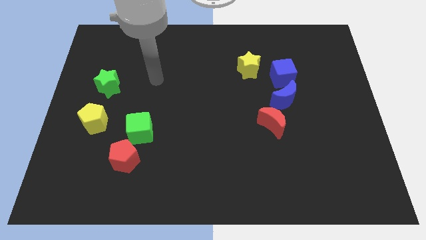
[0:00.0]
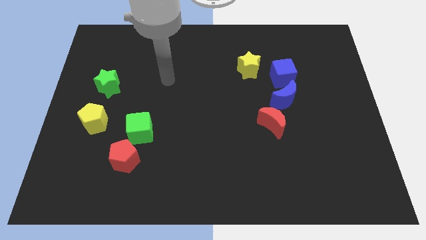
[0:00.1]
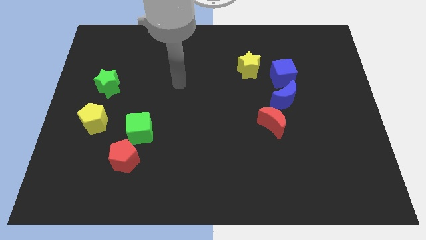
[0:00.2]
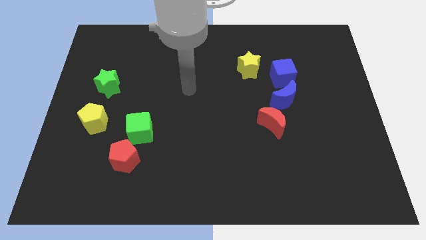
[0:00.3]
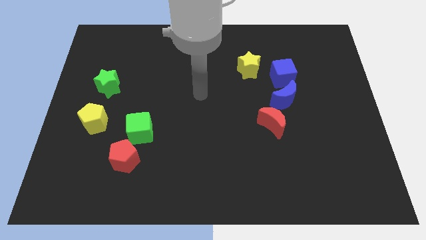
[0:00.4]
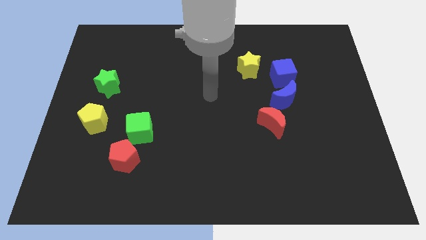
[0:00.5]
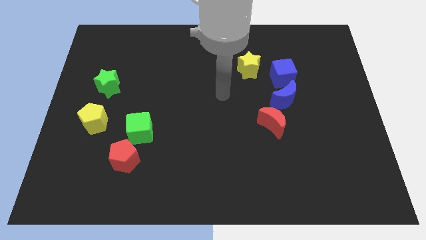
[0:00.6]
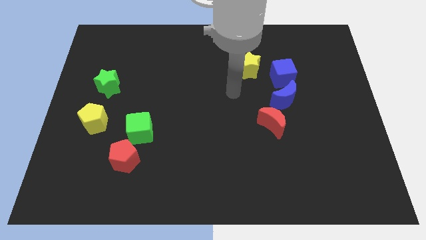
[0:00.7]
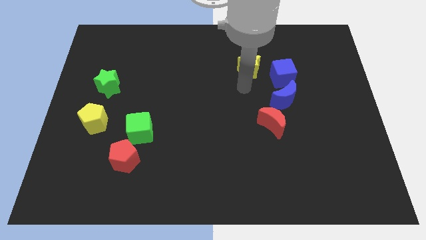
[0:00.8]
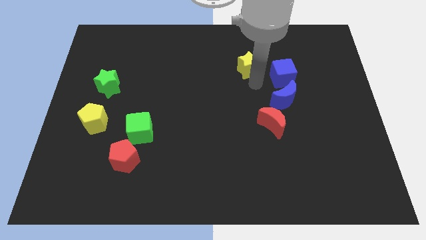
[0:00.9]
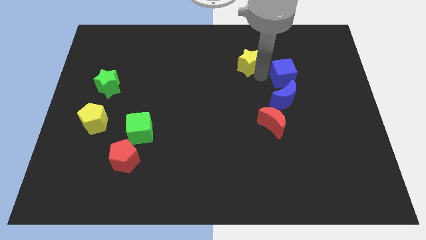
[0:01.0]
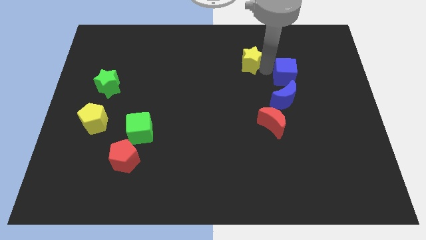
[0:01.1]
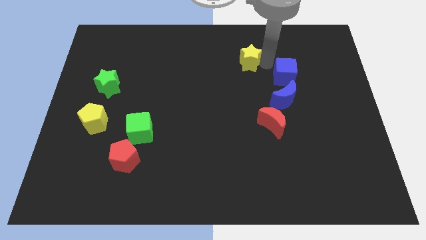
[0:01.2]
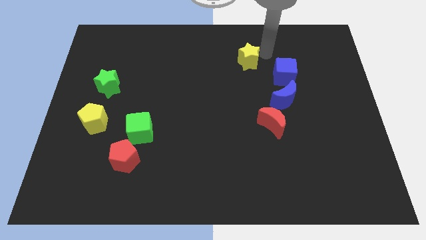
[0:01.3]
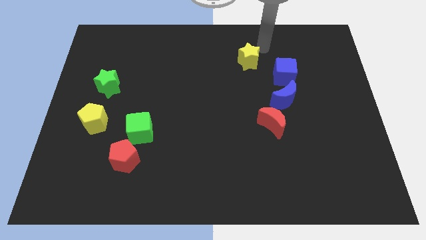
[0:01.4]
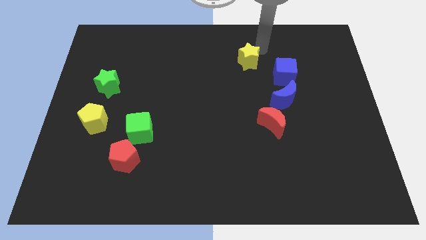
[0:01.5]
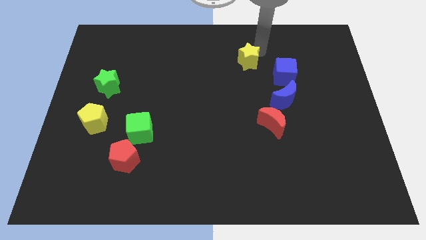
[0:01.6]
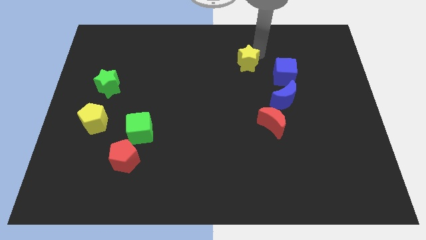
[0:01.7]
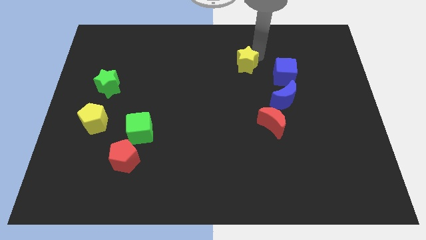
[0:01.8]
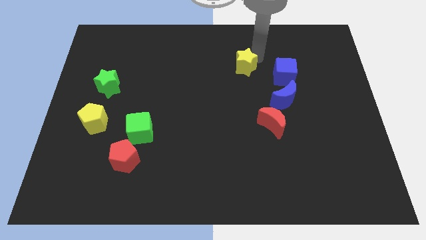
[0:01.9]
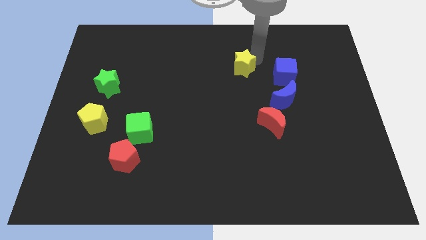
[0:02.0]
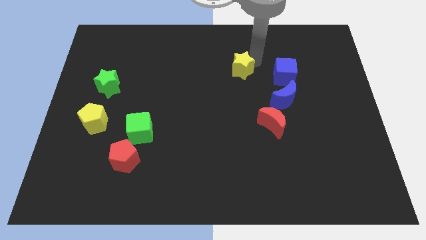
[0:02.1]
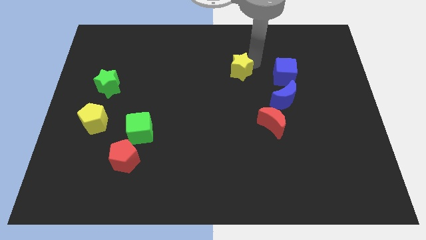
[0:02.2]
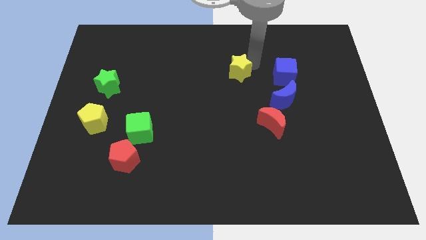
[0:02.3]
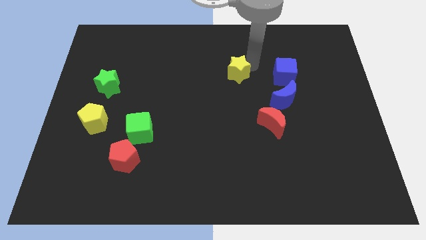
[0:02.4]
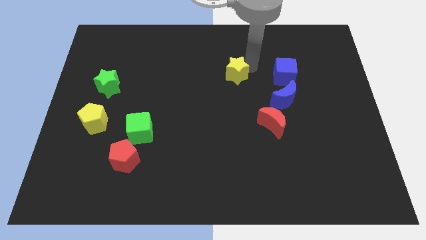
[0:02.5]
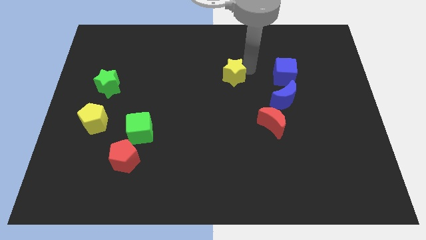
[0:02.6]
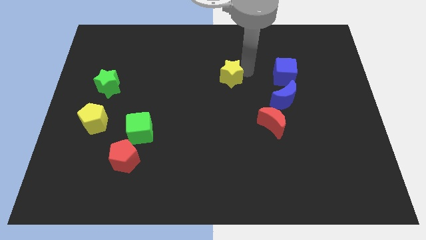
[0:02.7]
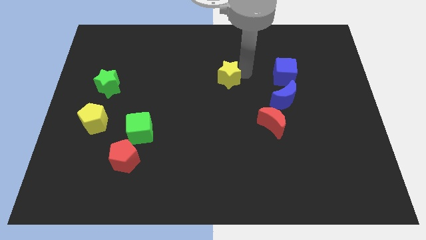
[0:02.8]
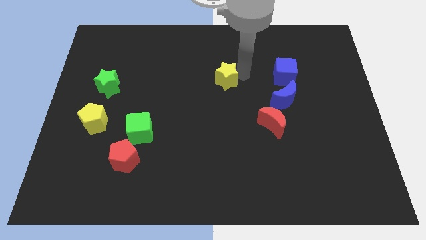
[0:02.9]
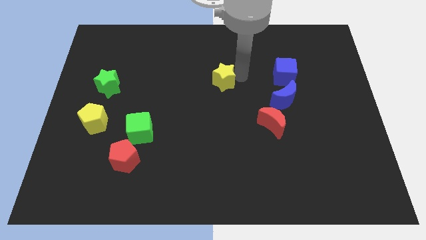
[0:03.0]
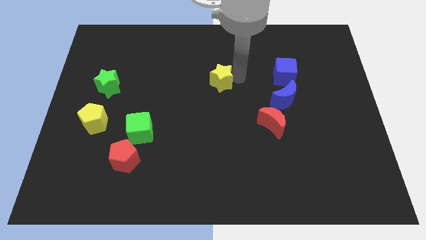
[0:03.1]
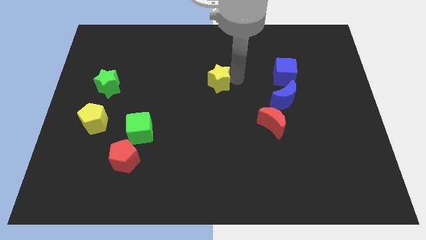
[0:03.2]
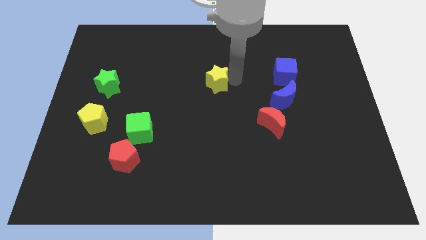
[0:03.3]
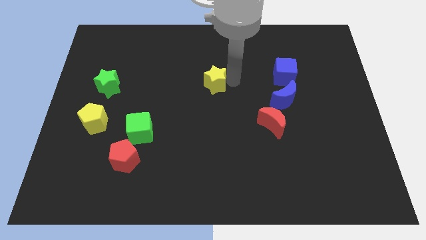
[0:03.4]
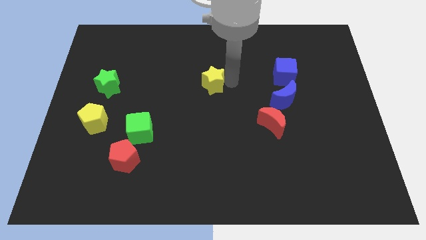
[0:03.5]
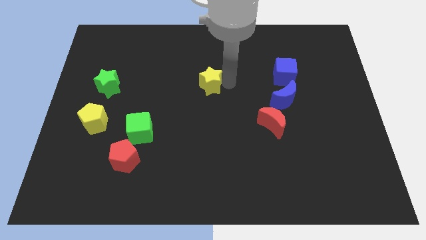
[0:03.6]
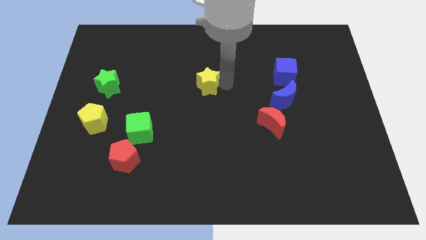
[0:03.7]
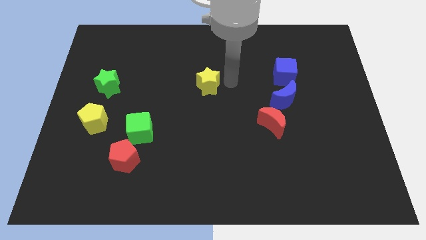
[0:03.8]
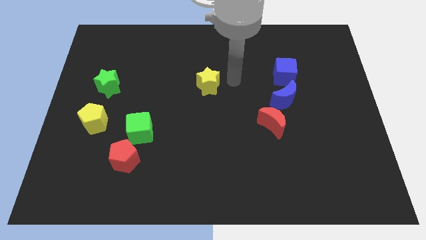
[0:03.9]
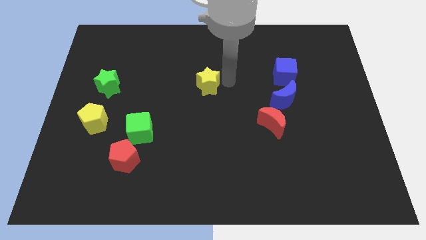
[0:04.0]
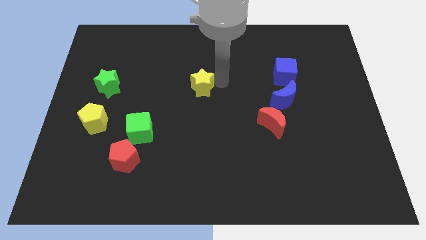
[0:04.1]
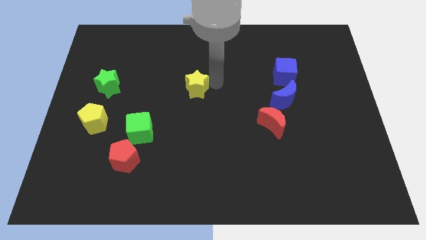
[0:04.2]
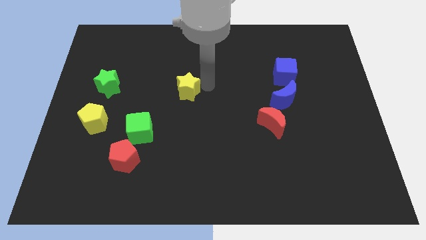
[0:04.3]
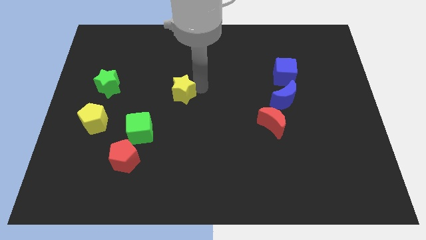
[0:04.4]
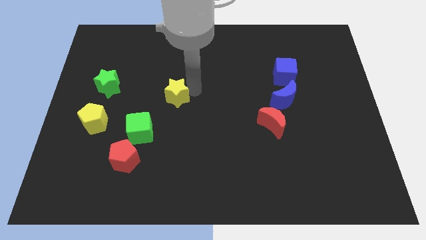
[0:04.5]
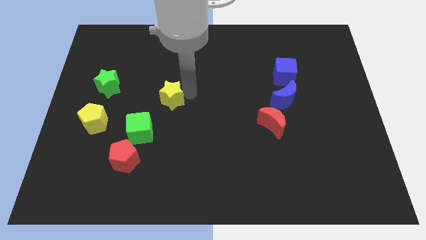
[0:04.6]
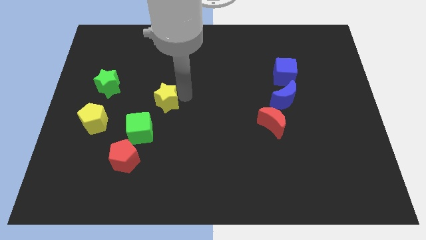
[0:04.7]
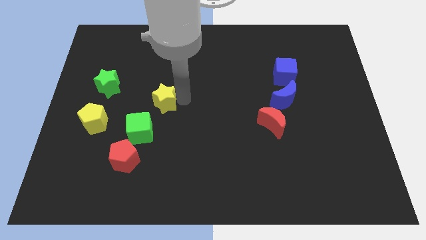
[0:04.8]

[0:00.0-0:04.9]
put the yellow star above the green cube

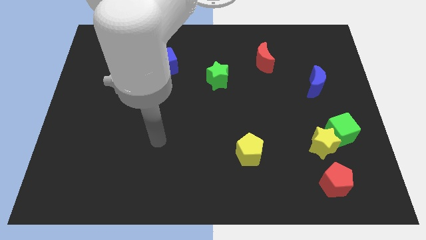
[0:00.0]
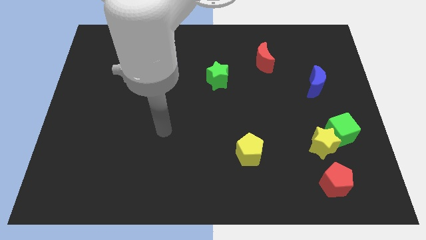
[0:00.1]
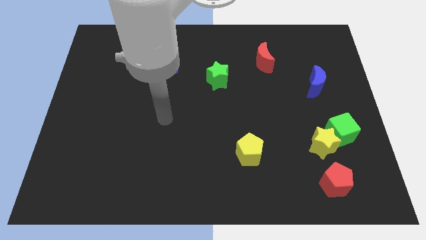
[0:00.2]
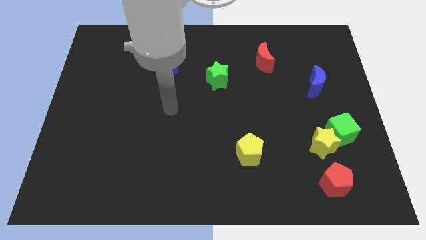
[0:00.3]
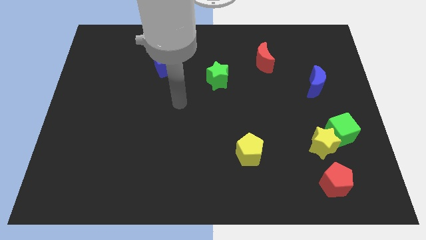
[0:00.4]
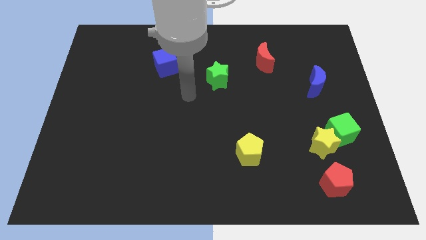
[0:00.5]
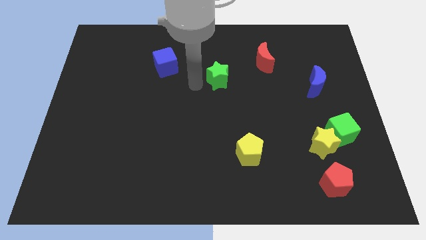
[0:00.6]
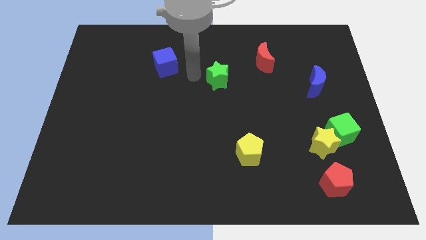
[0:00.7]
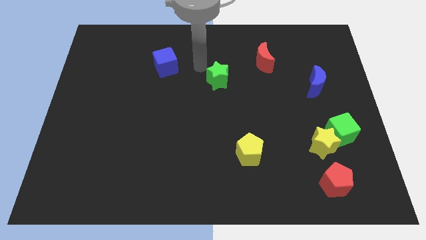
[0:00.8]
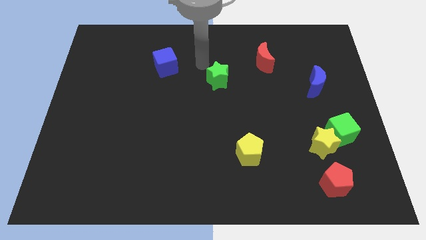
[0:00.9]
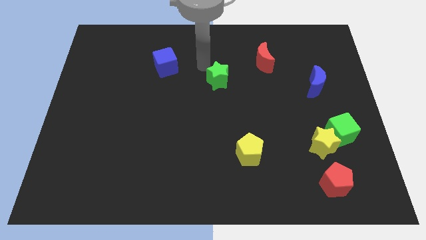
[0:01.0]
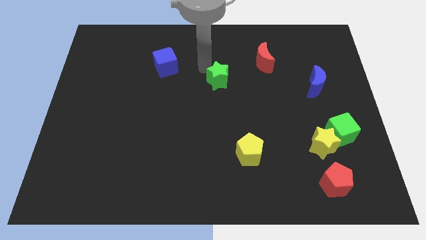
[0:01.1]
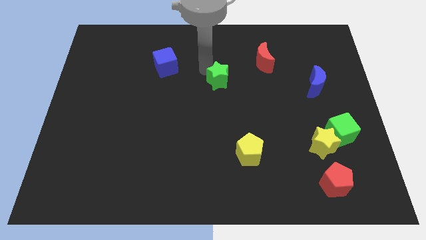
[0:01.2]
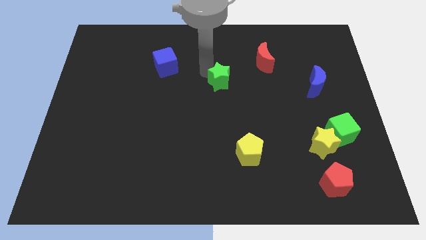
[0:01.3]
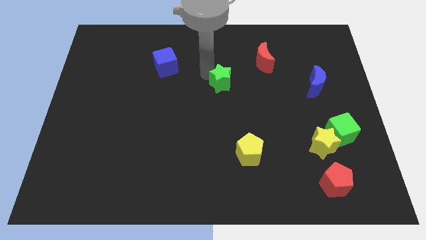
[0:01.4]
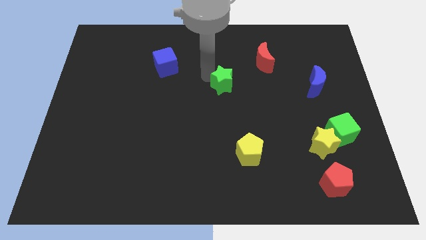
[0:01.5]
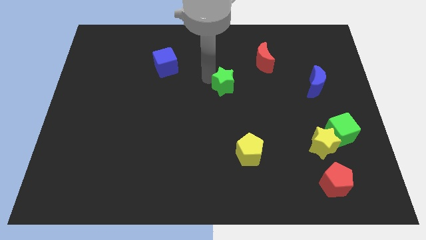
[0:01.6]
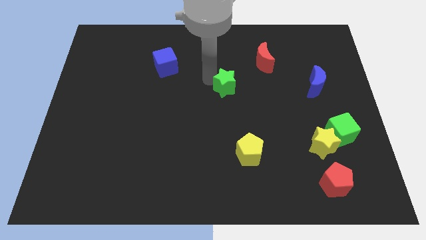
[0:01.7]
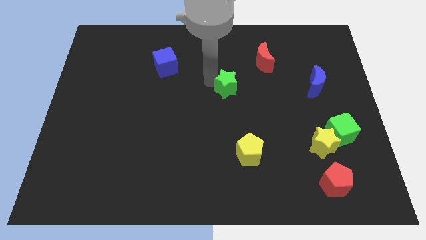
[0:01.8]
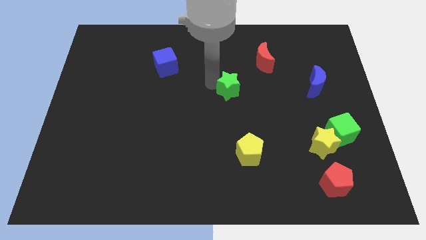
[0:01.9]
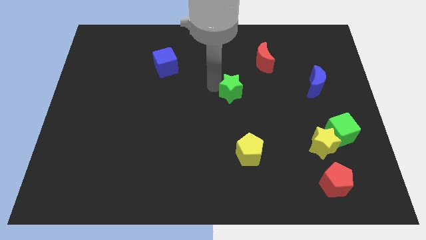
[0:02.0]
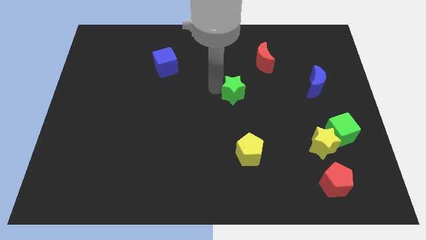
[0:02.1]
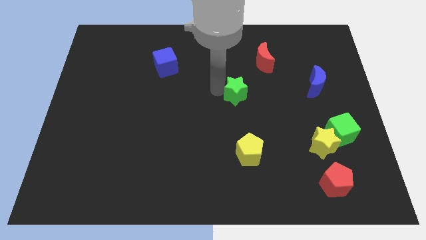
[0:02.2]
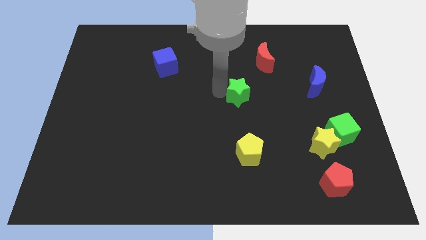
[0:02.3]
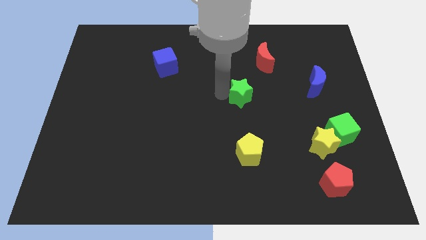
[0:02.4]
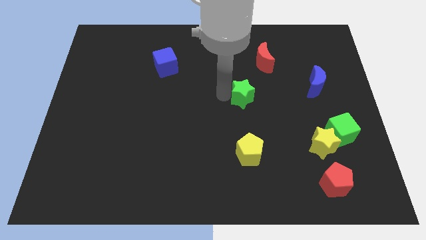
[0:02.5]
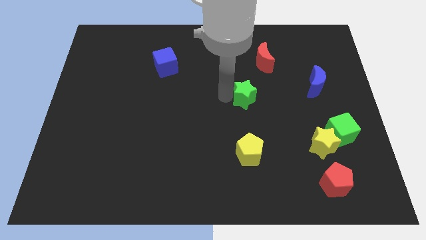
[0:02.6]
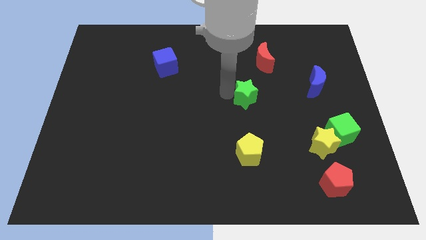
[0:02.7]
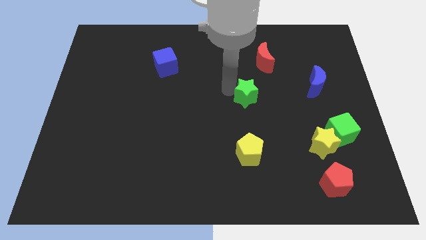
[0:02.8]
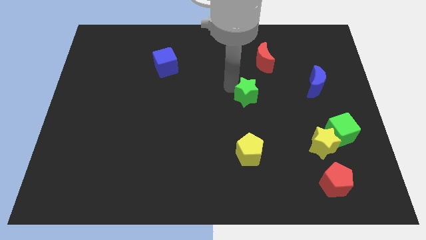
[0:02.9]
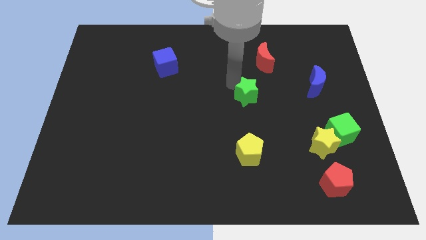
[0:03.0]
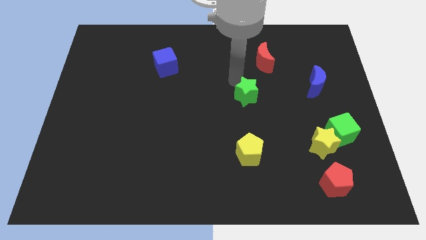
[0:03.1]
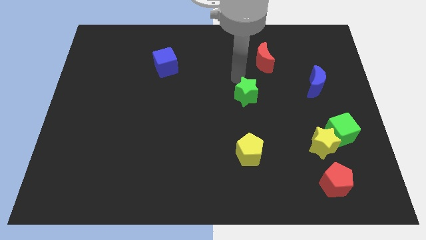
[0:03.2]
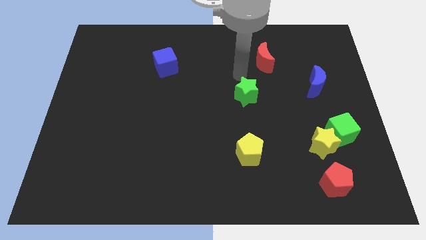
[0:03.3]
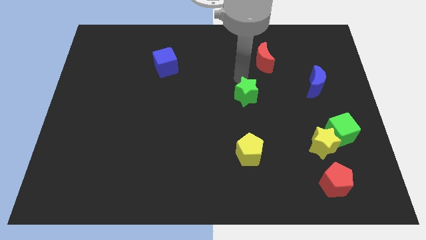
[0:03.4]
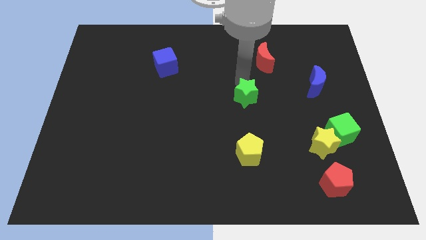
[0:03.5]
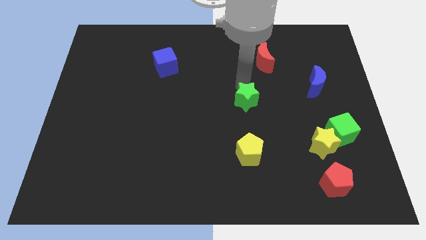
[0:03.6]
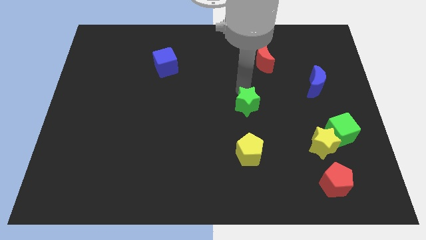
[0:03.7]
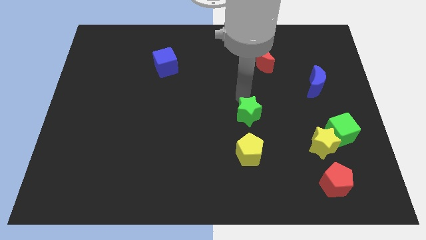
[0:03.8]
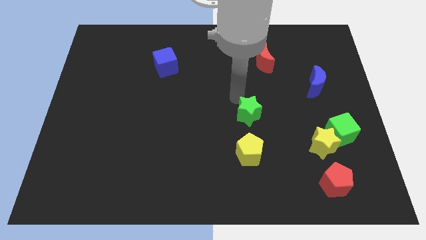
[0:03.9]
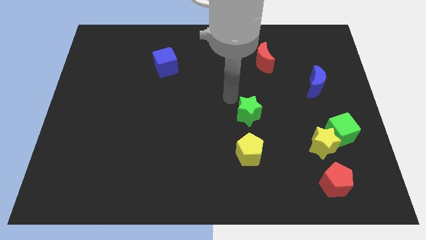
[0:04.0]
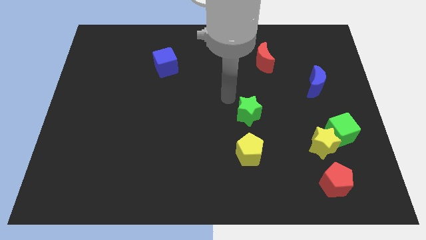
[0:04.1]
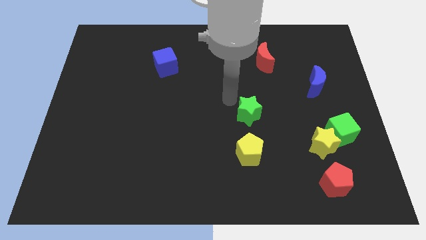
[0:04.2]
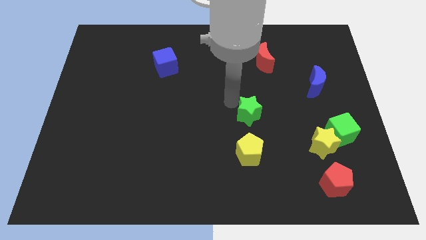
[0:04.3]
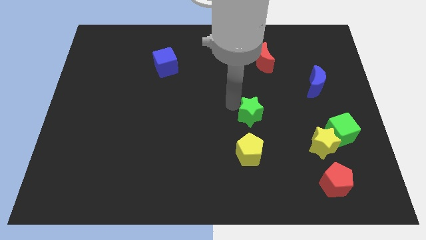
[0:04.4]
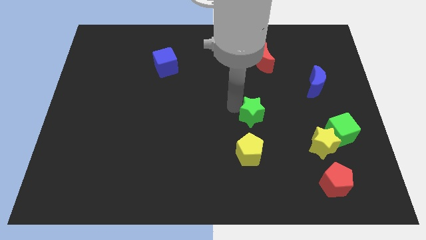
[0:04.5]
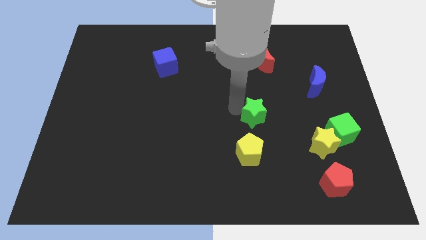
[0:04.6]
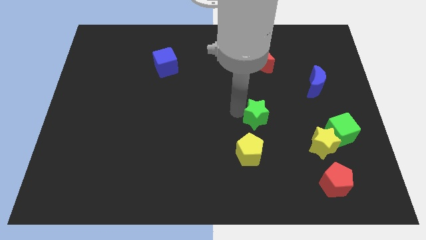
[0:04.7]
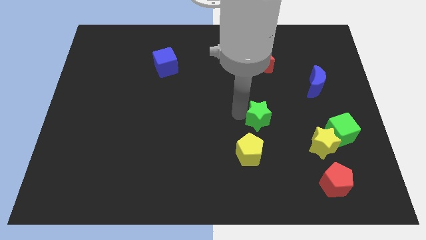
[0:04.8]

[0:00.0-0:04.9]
push the green star to the top right side of the yellow pentagon
